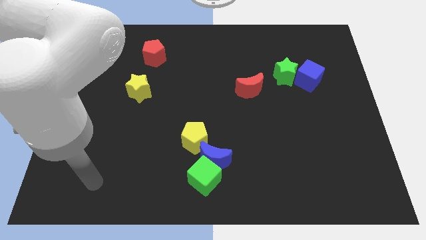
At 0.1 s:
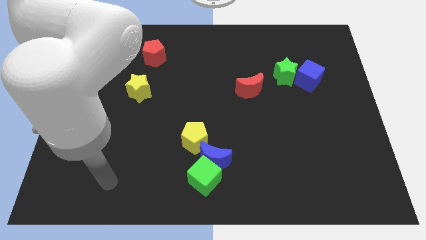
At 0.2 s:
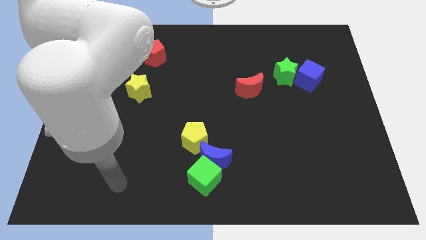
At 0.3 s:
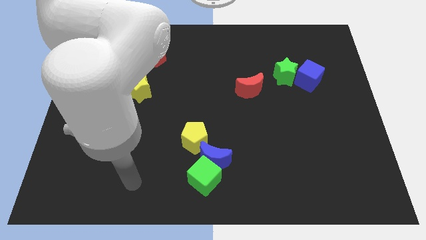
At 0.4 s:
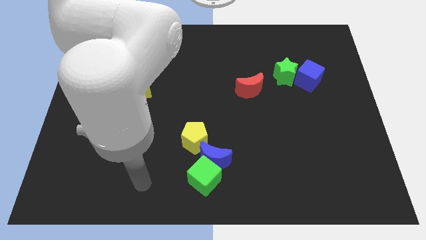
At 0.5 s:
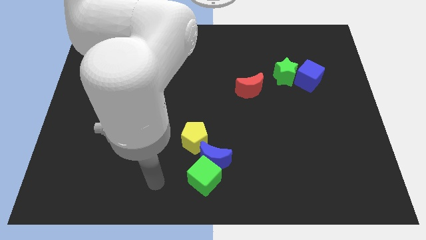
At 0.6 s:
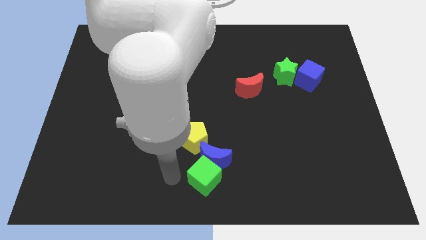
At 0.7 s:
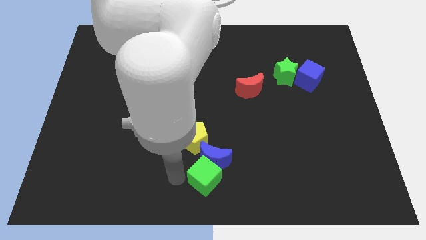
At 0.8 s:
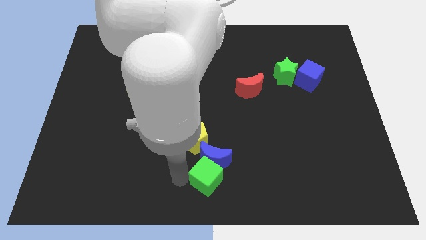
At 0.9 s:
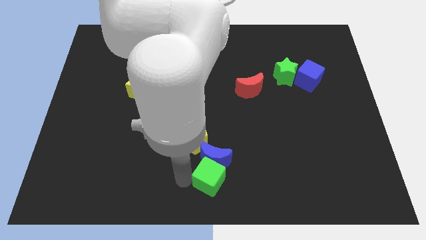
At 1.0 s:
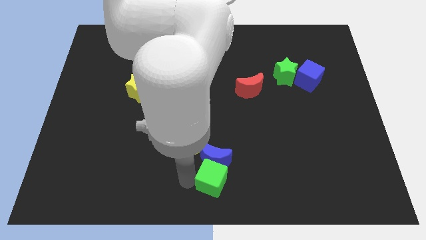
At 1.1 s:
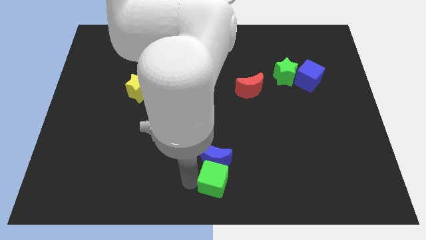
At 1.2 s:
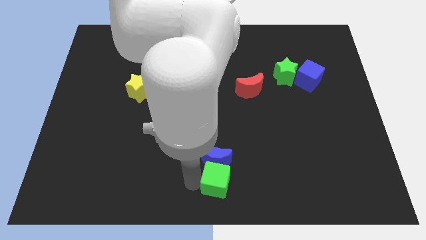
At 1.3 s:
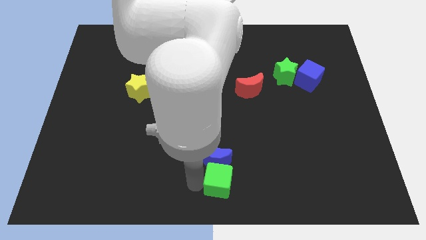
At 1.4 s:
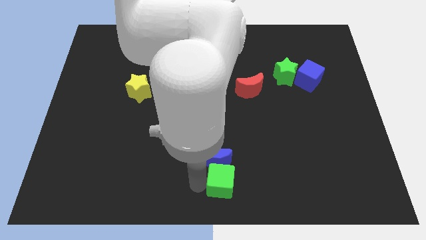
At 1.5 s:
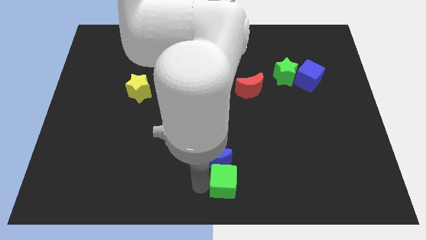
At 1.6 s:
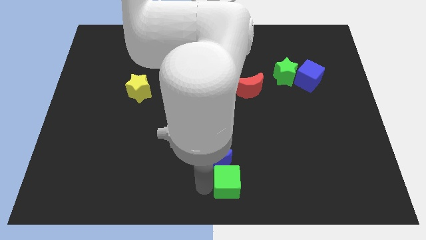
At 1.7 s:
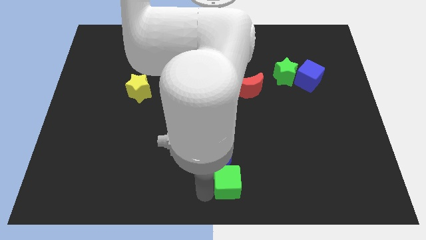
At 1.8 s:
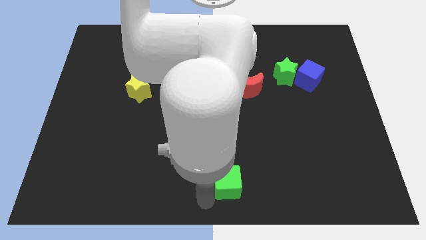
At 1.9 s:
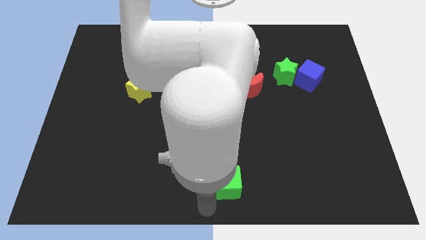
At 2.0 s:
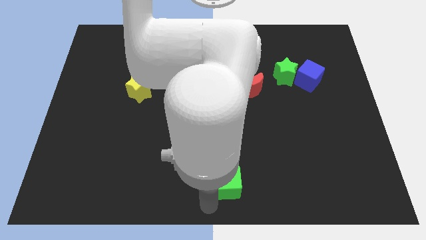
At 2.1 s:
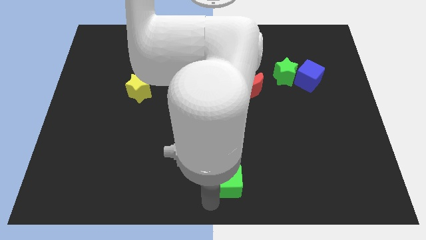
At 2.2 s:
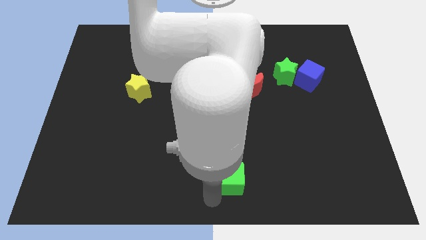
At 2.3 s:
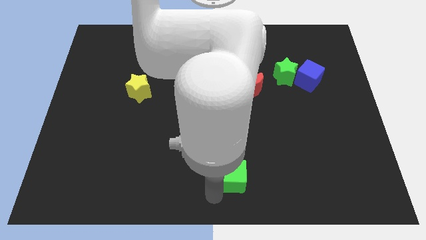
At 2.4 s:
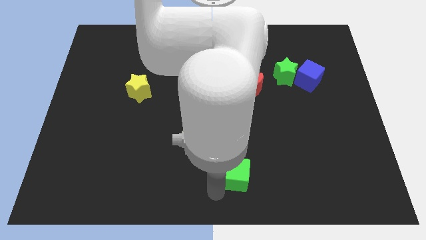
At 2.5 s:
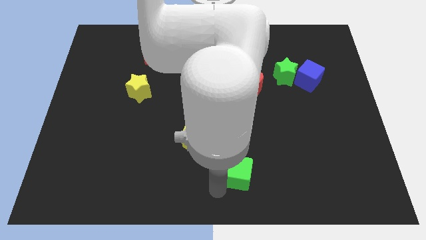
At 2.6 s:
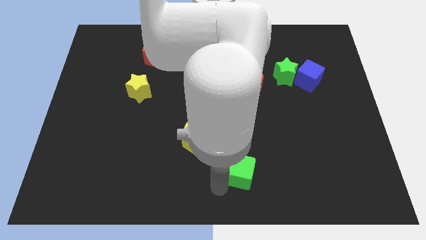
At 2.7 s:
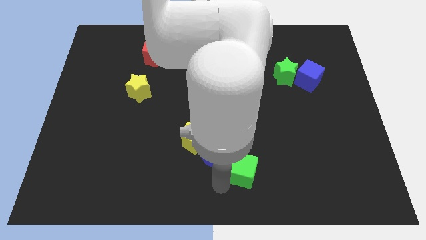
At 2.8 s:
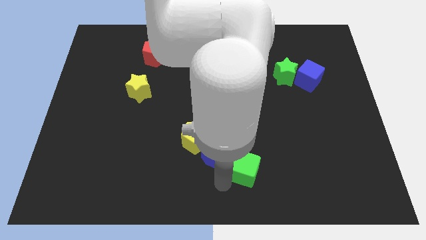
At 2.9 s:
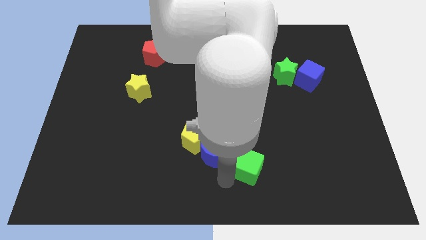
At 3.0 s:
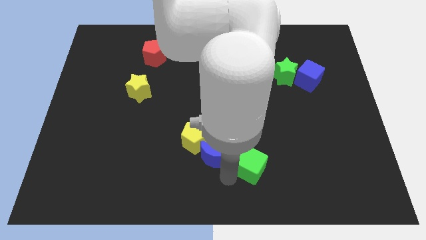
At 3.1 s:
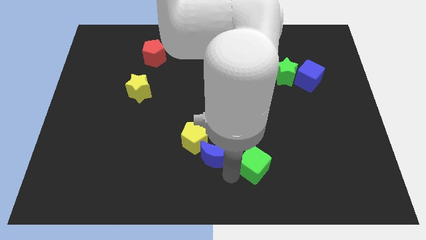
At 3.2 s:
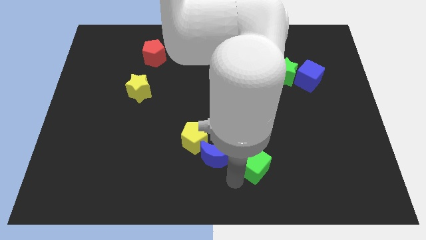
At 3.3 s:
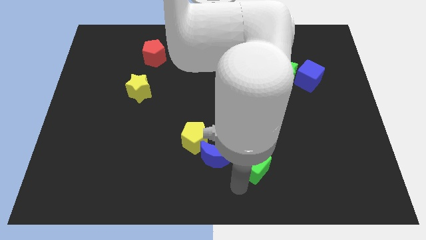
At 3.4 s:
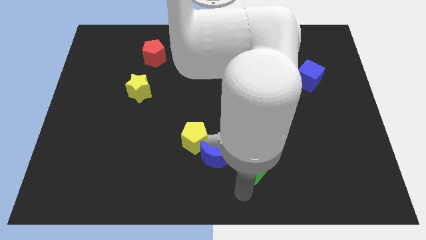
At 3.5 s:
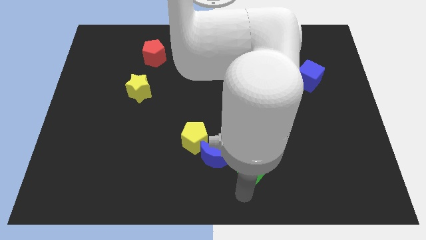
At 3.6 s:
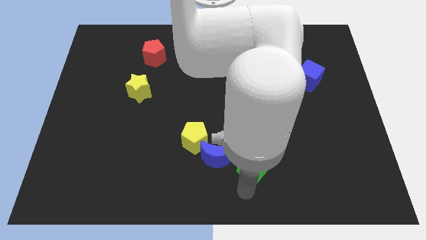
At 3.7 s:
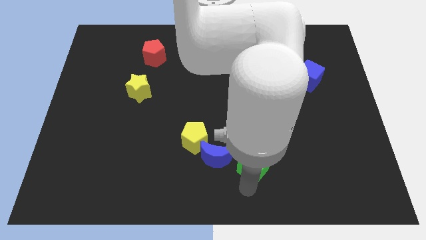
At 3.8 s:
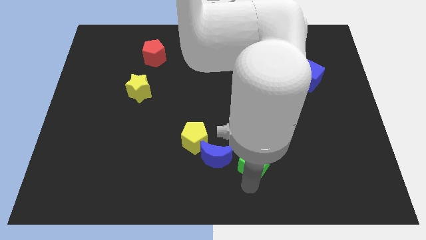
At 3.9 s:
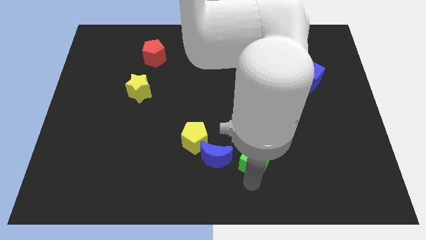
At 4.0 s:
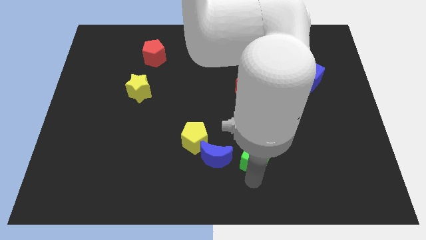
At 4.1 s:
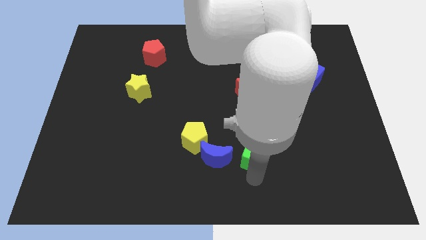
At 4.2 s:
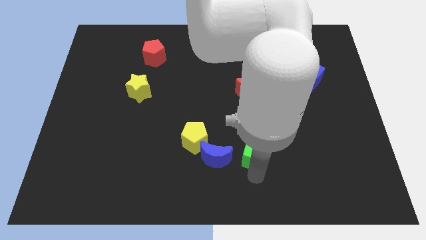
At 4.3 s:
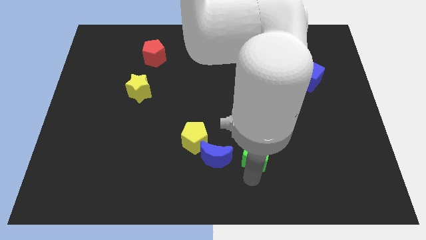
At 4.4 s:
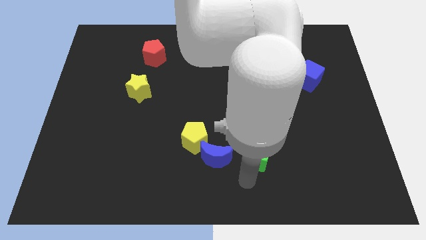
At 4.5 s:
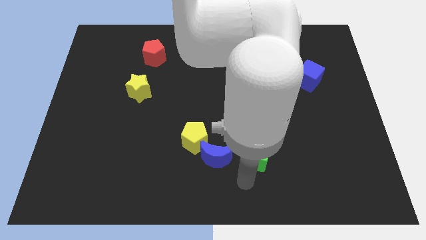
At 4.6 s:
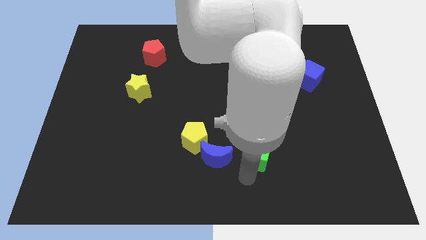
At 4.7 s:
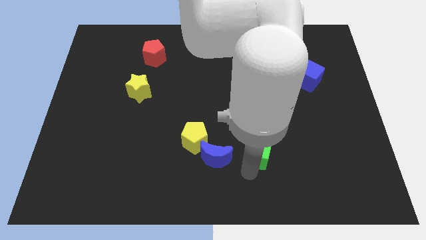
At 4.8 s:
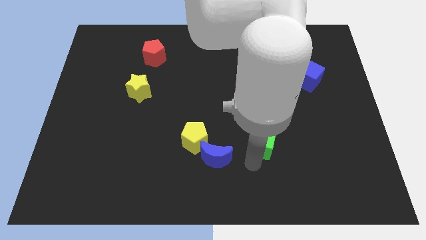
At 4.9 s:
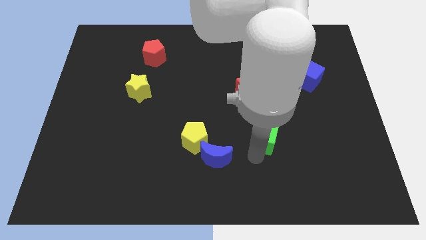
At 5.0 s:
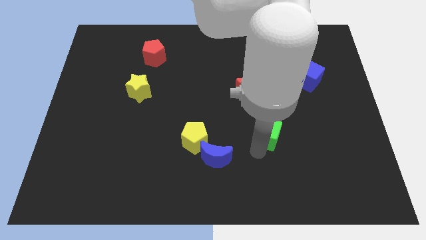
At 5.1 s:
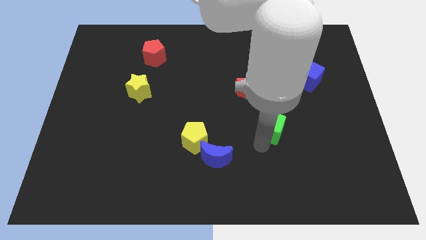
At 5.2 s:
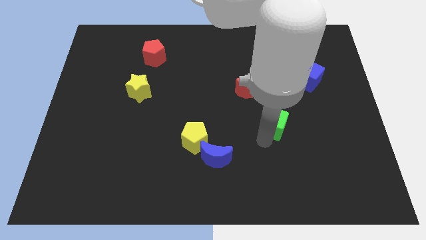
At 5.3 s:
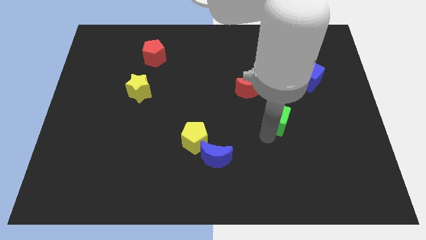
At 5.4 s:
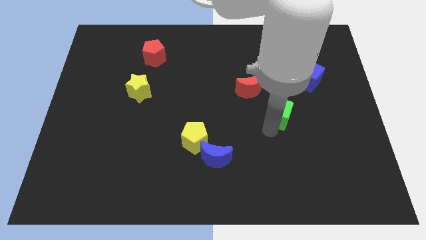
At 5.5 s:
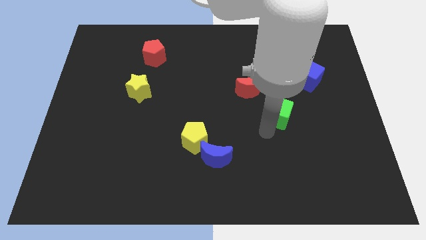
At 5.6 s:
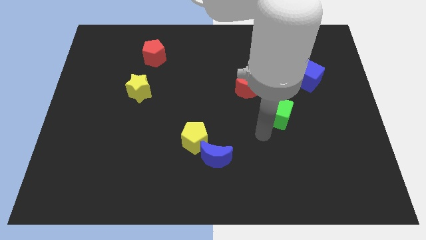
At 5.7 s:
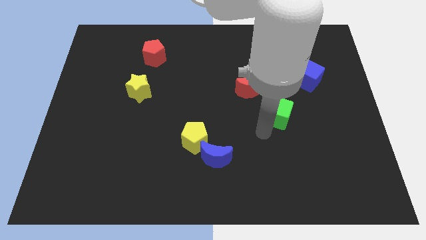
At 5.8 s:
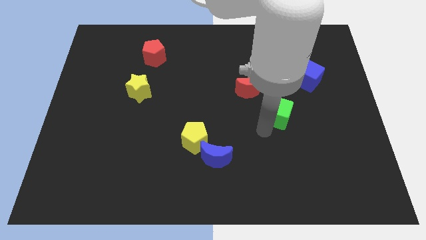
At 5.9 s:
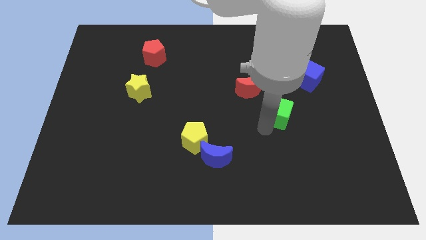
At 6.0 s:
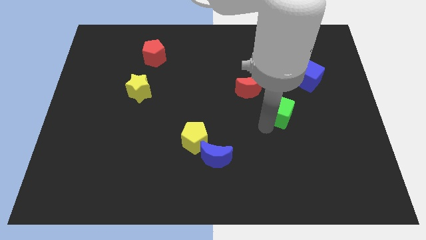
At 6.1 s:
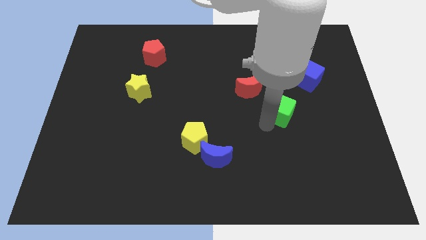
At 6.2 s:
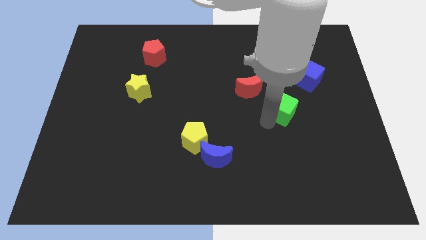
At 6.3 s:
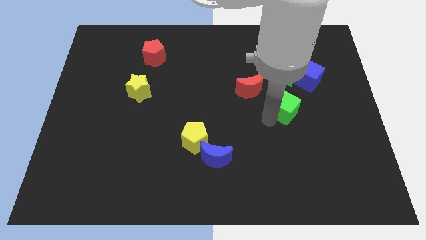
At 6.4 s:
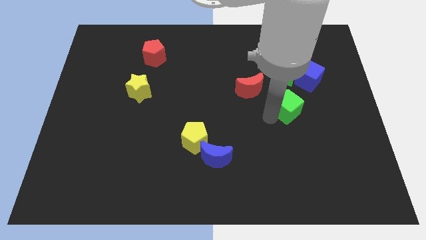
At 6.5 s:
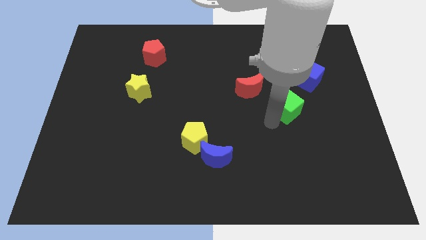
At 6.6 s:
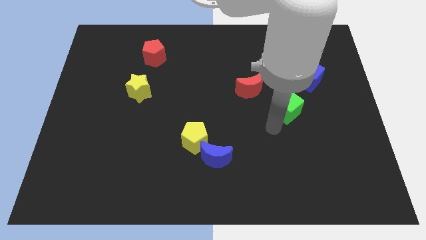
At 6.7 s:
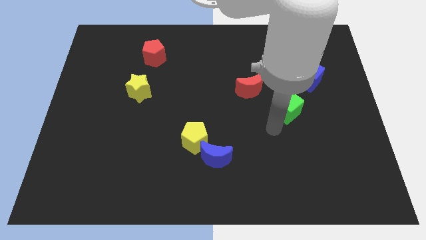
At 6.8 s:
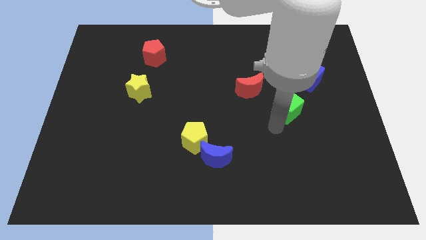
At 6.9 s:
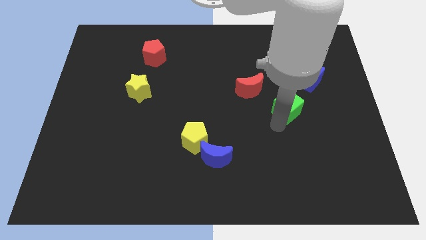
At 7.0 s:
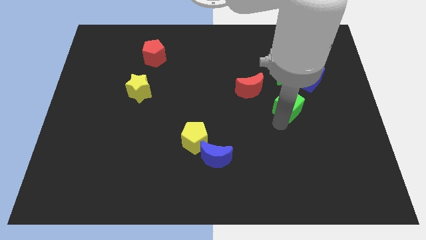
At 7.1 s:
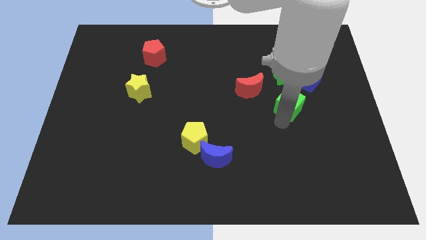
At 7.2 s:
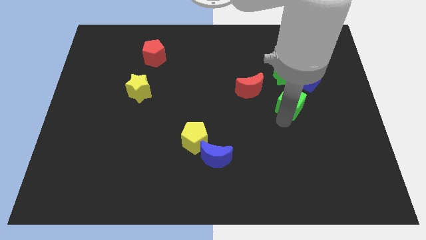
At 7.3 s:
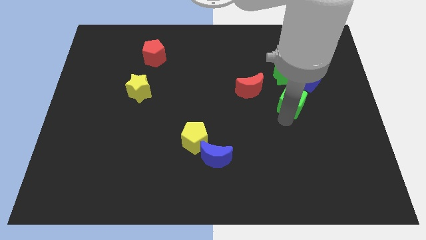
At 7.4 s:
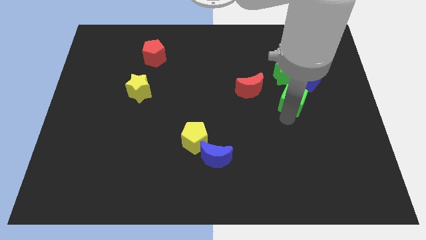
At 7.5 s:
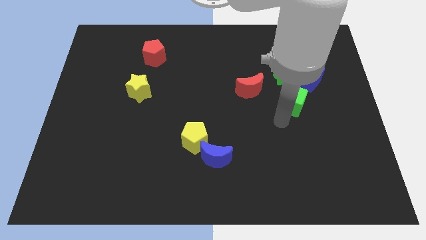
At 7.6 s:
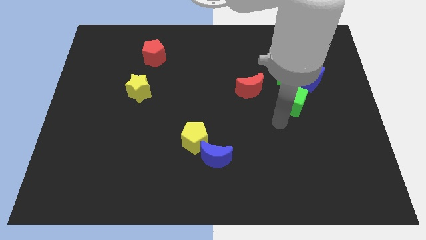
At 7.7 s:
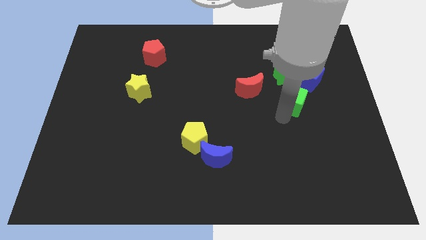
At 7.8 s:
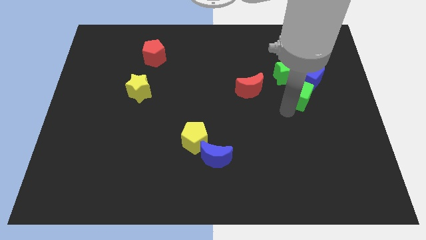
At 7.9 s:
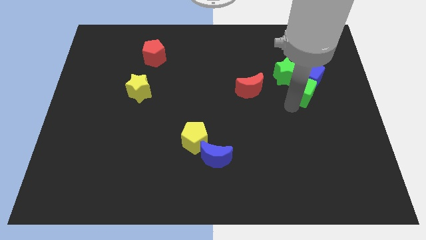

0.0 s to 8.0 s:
push the green cube next to the blue cube
